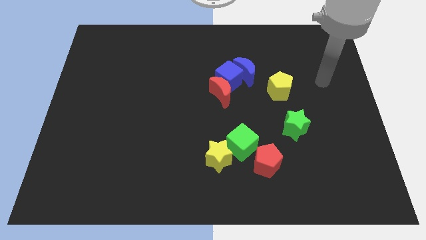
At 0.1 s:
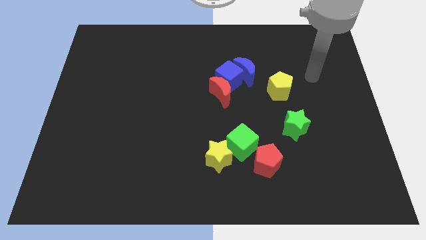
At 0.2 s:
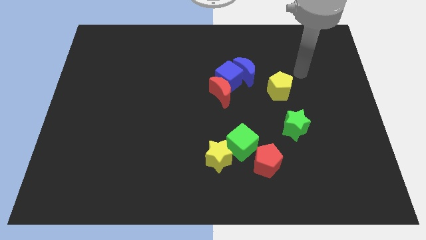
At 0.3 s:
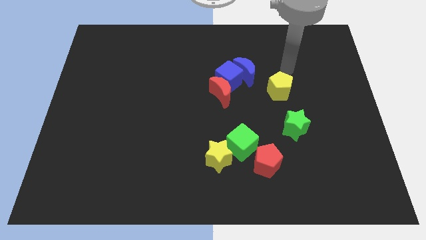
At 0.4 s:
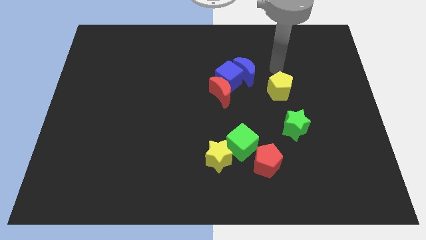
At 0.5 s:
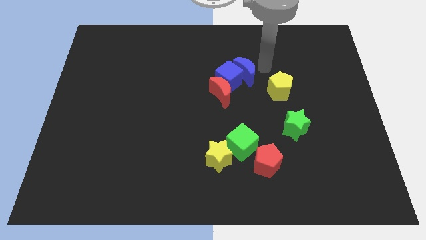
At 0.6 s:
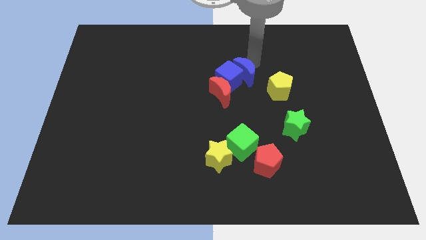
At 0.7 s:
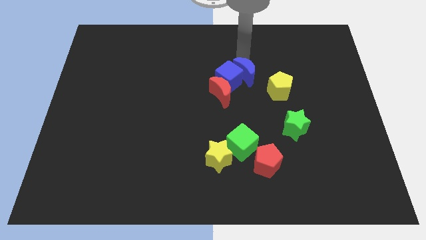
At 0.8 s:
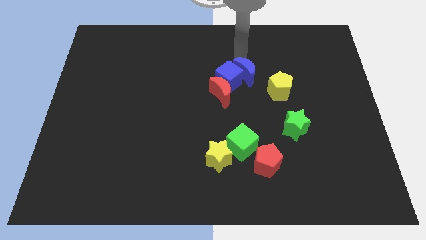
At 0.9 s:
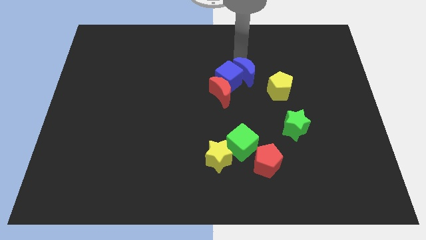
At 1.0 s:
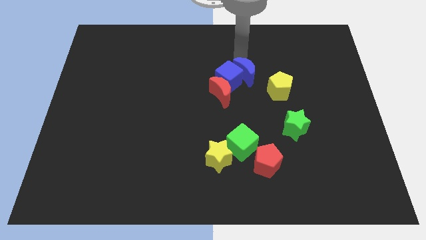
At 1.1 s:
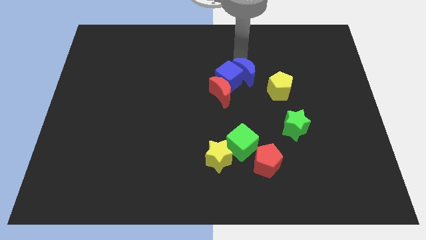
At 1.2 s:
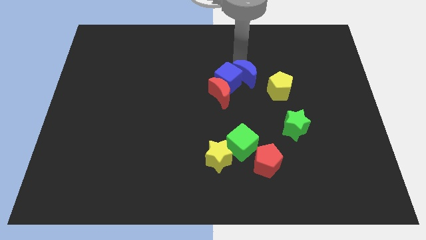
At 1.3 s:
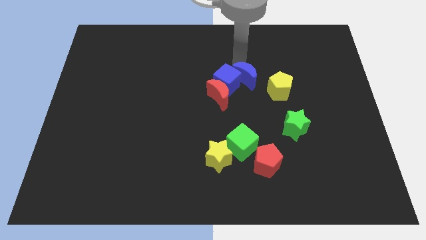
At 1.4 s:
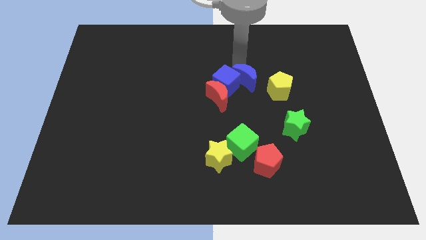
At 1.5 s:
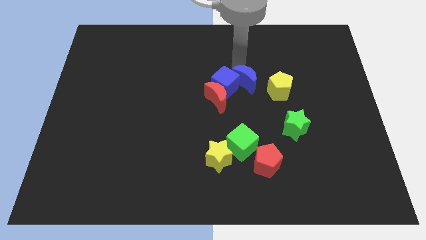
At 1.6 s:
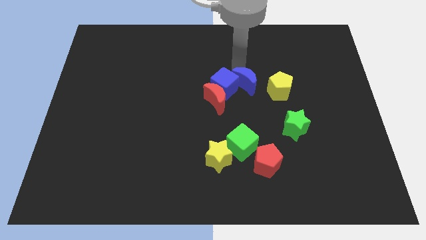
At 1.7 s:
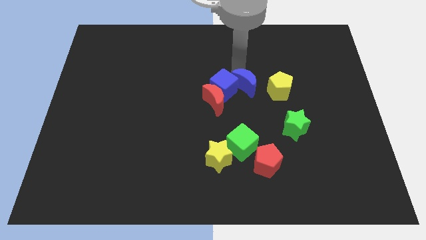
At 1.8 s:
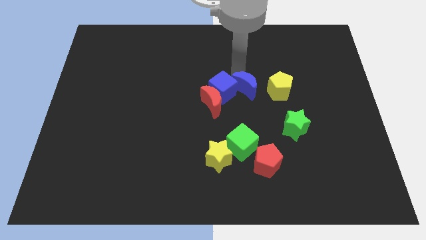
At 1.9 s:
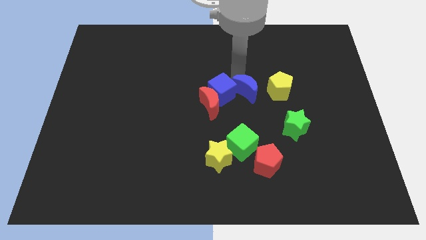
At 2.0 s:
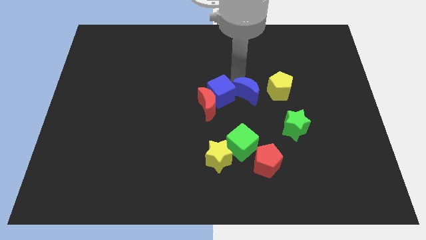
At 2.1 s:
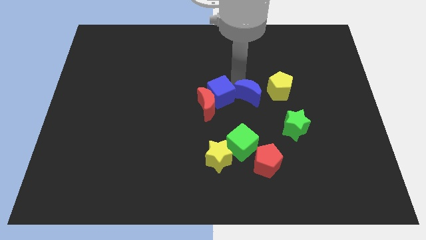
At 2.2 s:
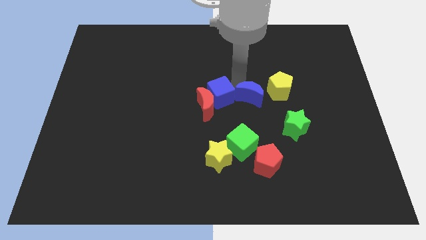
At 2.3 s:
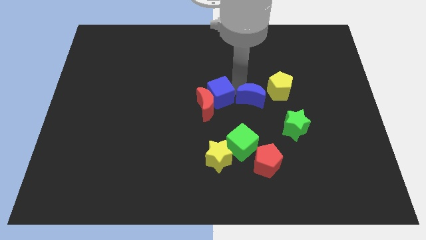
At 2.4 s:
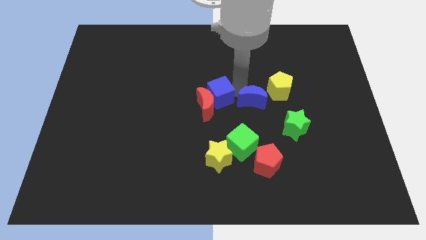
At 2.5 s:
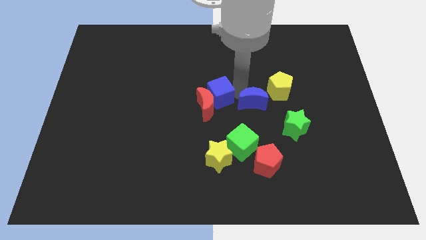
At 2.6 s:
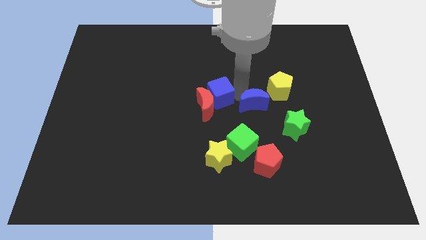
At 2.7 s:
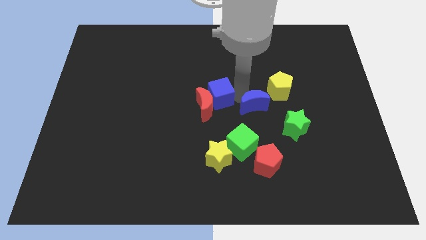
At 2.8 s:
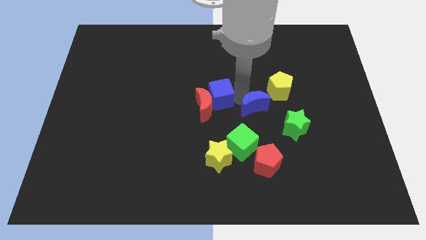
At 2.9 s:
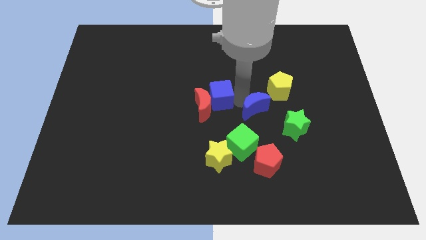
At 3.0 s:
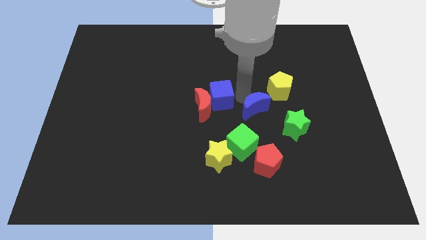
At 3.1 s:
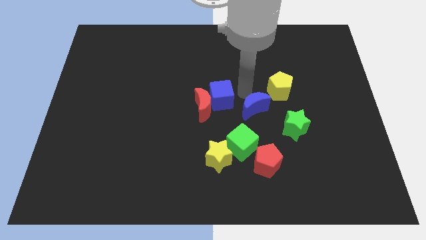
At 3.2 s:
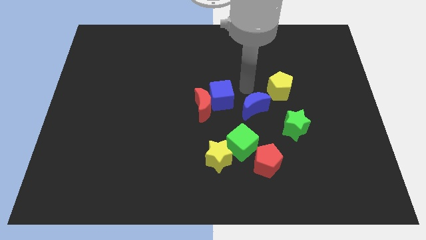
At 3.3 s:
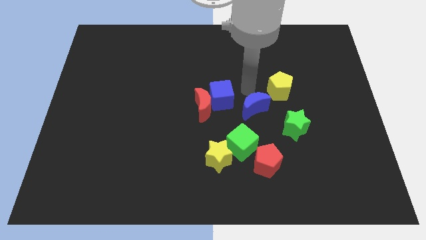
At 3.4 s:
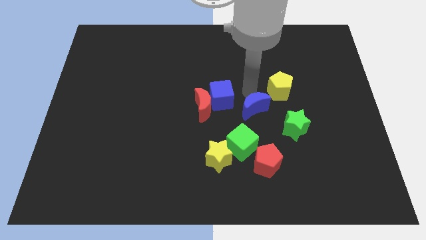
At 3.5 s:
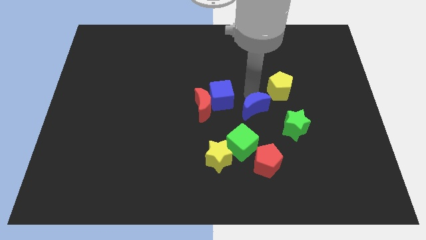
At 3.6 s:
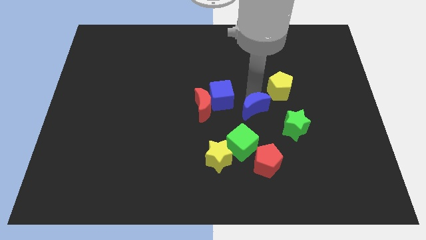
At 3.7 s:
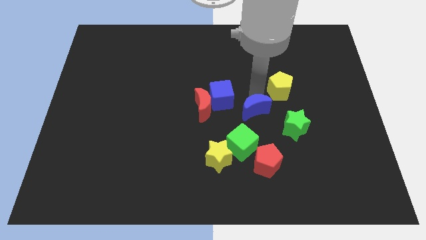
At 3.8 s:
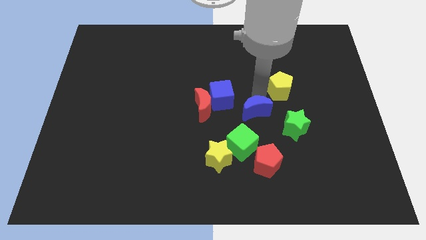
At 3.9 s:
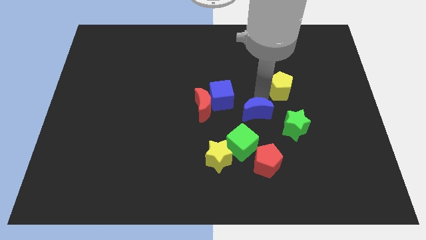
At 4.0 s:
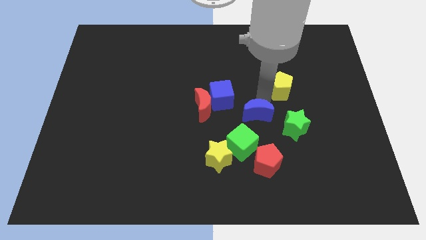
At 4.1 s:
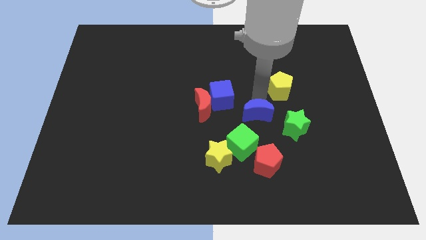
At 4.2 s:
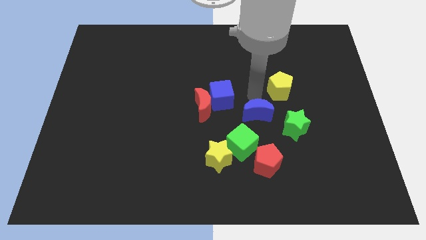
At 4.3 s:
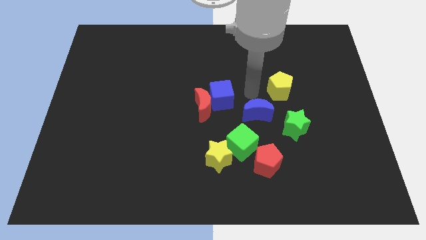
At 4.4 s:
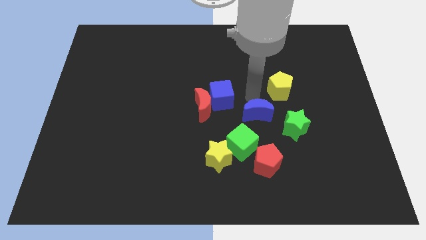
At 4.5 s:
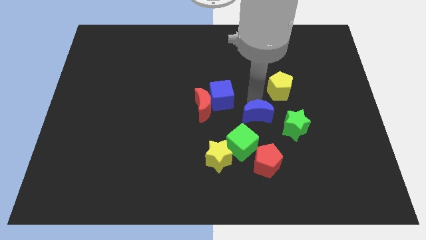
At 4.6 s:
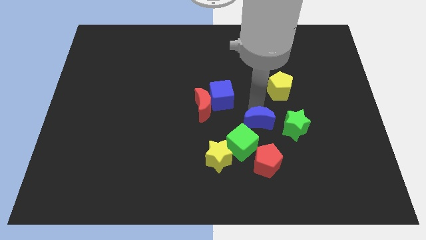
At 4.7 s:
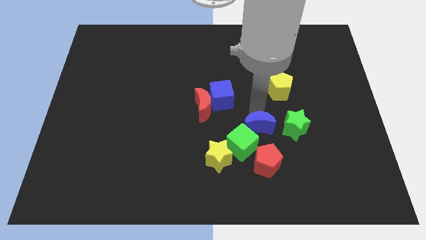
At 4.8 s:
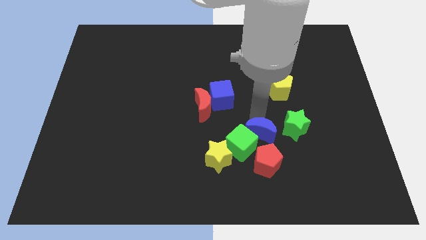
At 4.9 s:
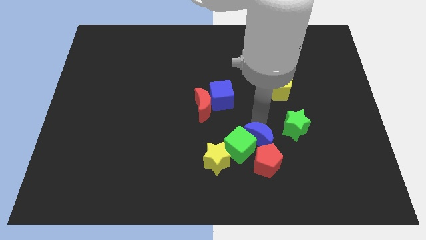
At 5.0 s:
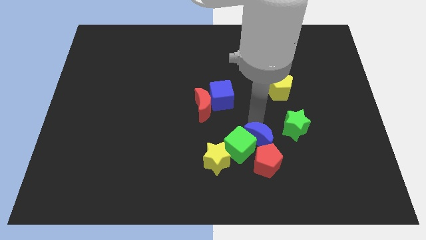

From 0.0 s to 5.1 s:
put the blue moon next to the red pentagon

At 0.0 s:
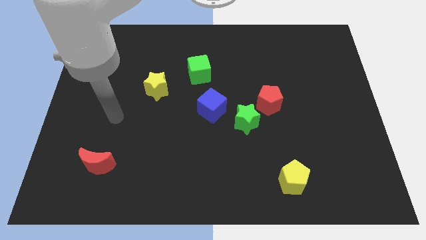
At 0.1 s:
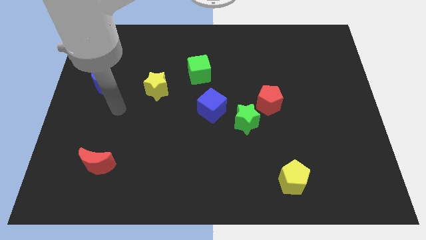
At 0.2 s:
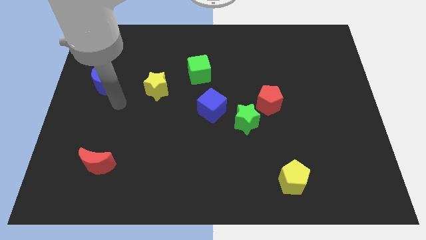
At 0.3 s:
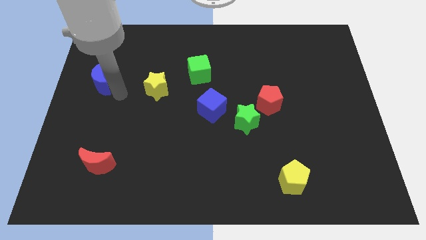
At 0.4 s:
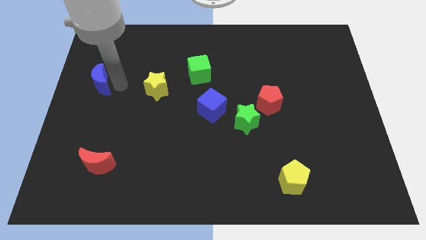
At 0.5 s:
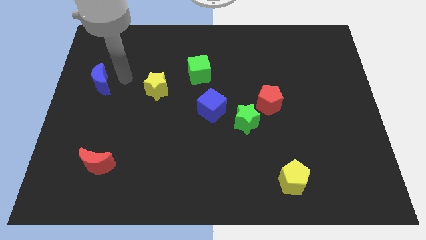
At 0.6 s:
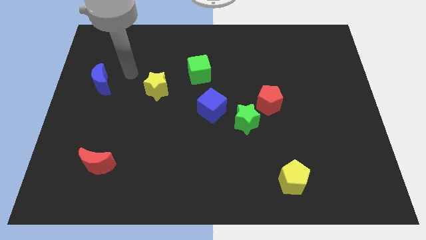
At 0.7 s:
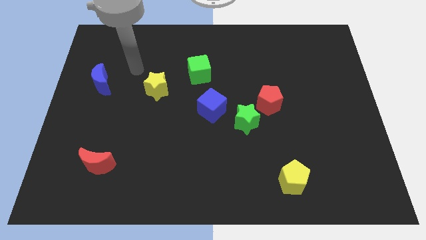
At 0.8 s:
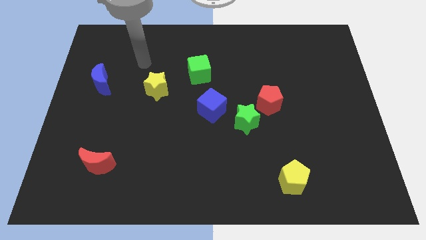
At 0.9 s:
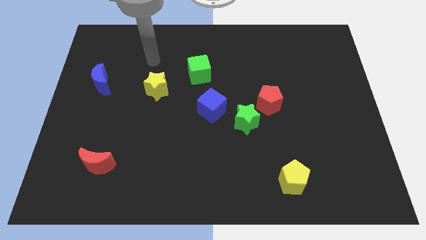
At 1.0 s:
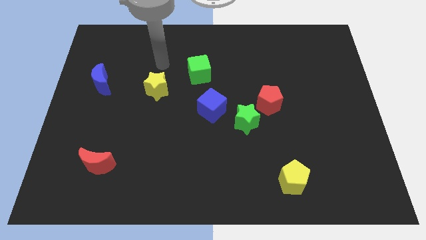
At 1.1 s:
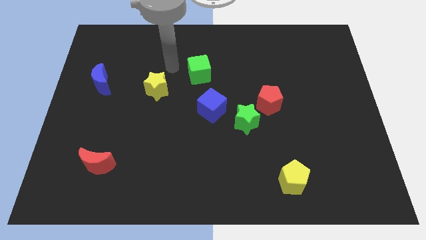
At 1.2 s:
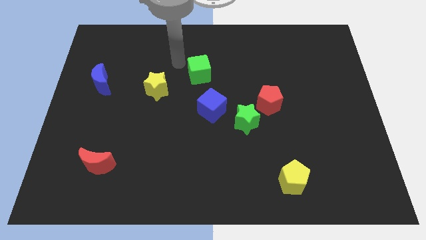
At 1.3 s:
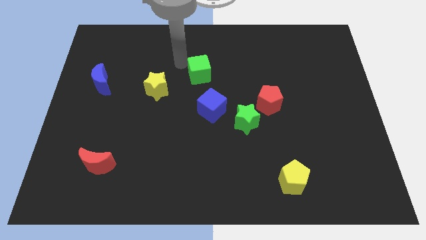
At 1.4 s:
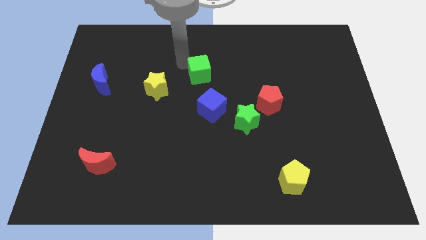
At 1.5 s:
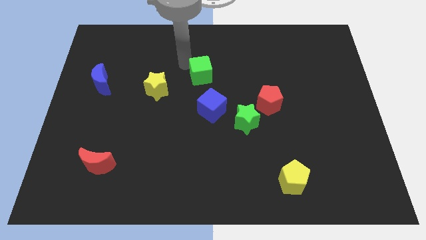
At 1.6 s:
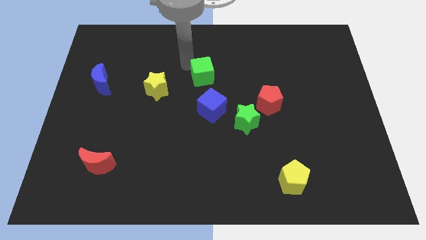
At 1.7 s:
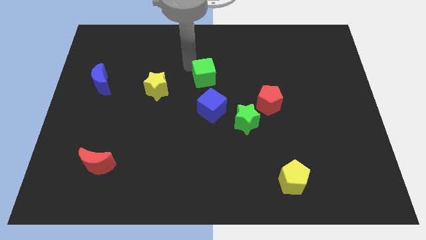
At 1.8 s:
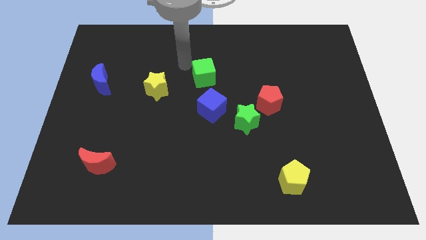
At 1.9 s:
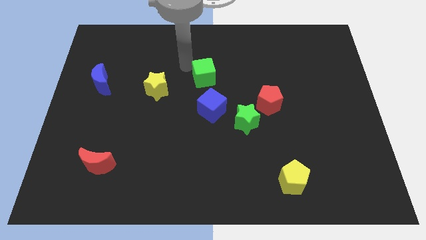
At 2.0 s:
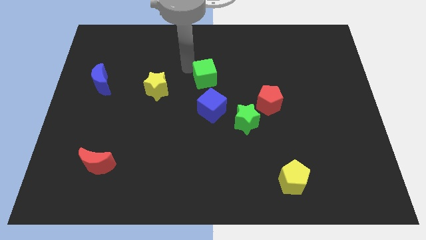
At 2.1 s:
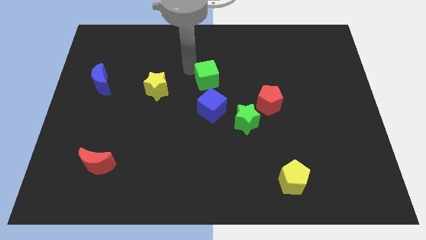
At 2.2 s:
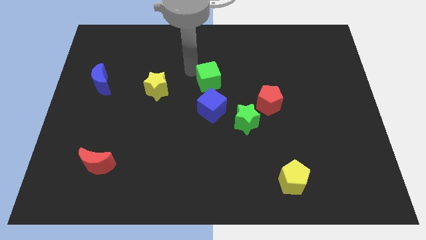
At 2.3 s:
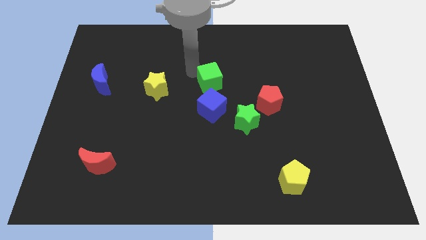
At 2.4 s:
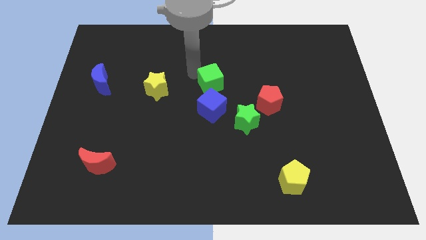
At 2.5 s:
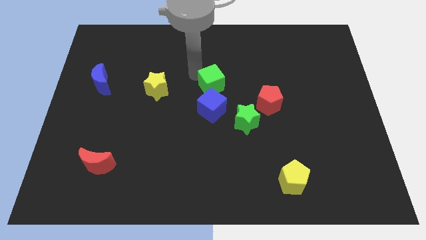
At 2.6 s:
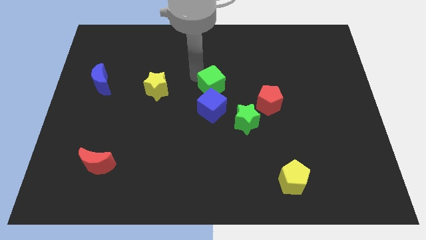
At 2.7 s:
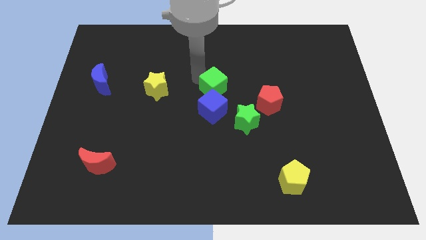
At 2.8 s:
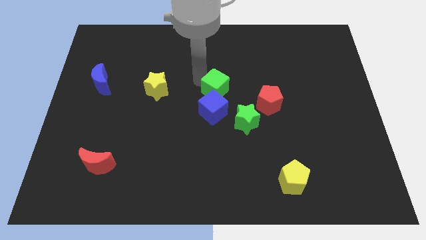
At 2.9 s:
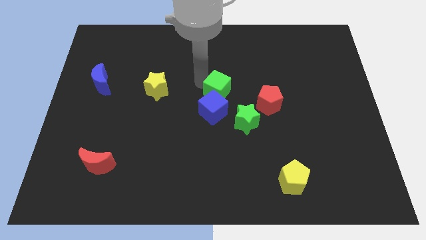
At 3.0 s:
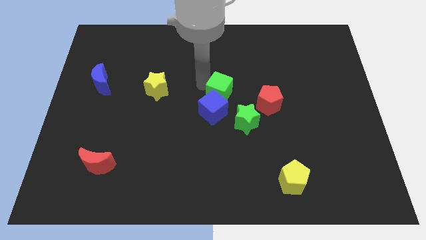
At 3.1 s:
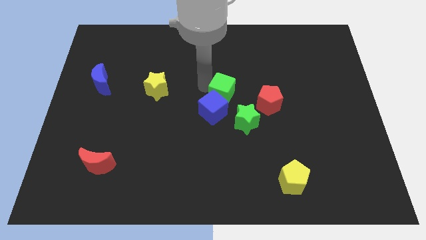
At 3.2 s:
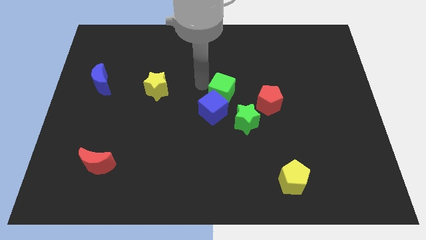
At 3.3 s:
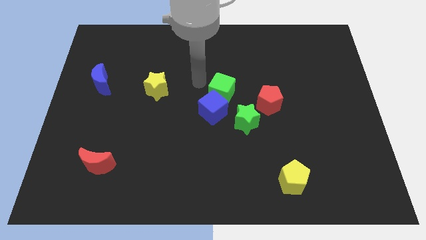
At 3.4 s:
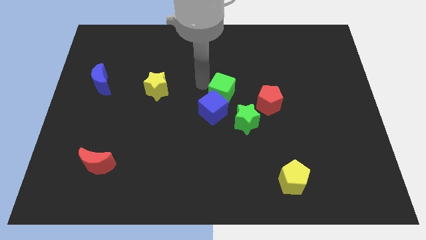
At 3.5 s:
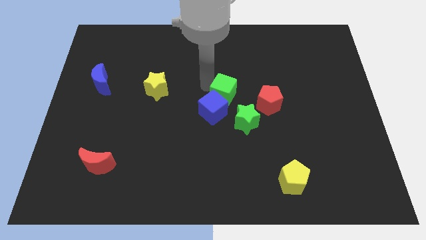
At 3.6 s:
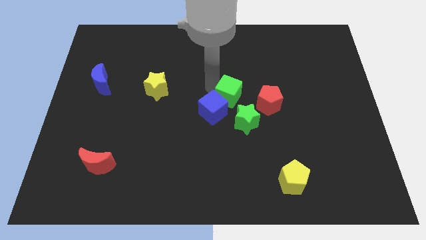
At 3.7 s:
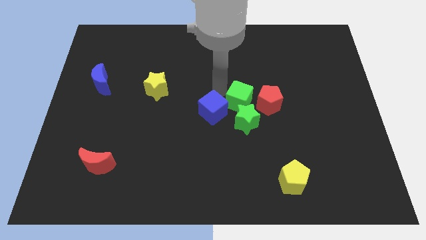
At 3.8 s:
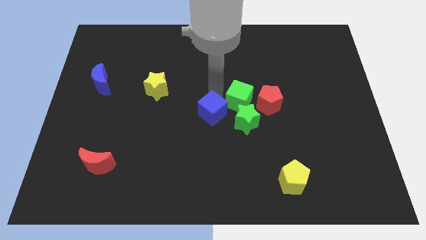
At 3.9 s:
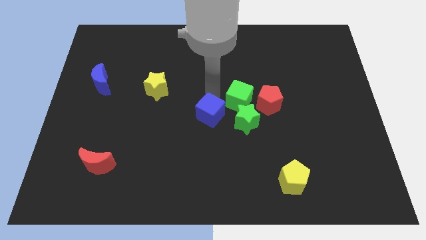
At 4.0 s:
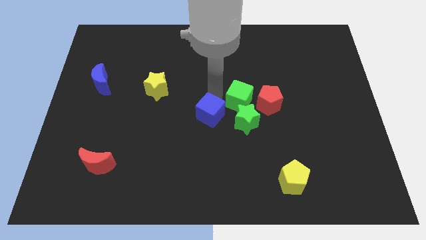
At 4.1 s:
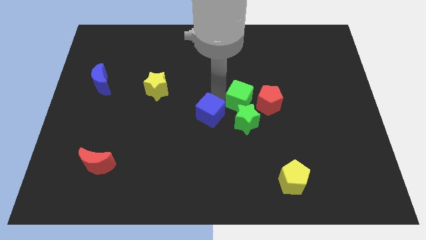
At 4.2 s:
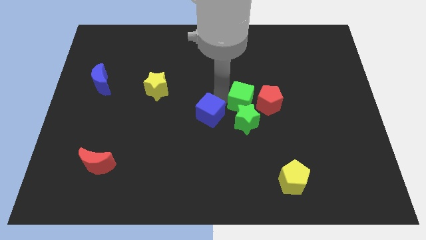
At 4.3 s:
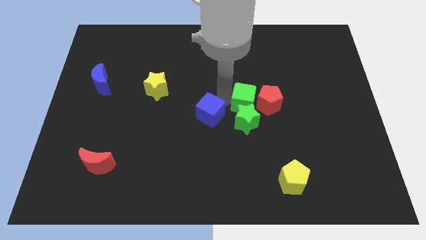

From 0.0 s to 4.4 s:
slide the green cube to the red pentagon
